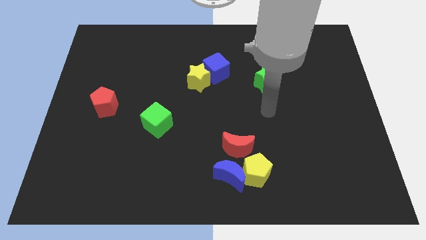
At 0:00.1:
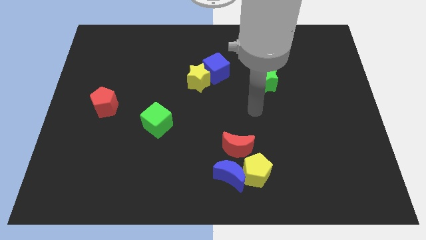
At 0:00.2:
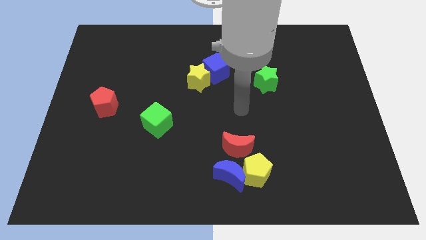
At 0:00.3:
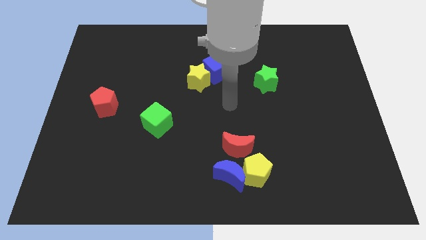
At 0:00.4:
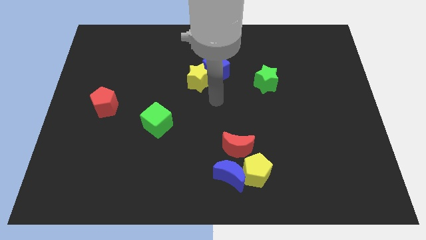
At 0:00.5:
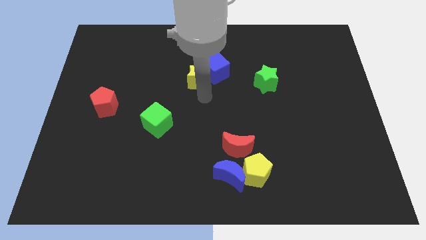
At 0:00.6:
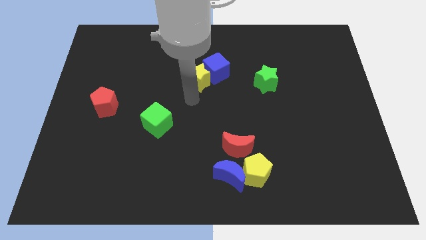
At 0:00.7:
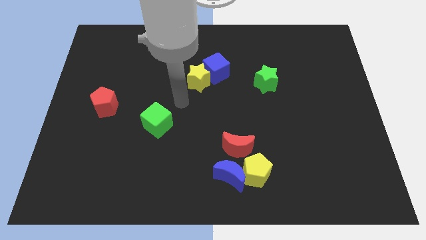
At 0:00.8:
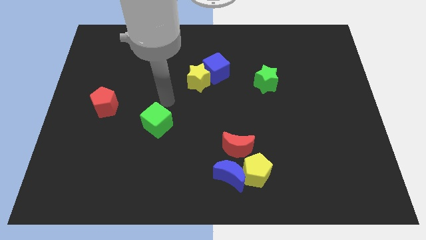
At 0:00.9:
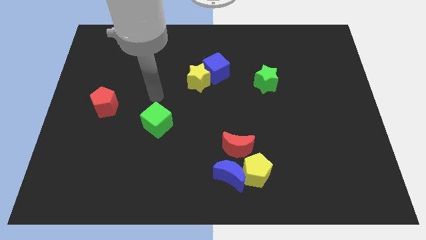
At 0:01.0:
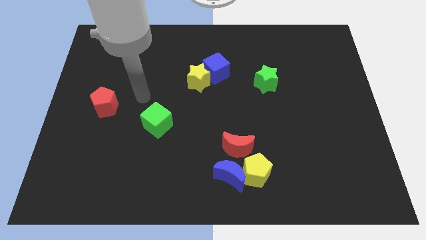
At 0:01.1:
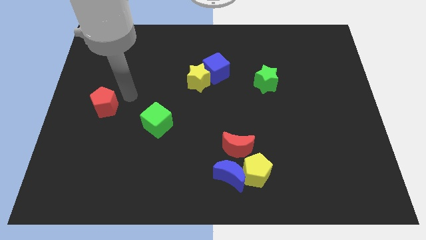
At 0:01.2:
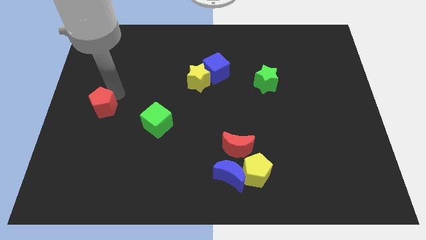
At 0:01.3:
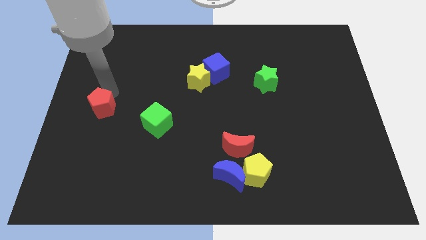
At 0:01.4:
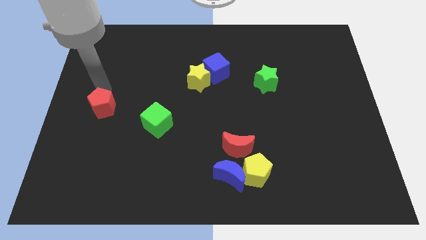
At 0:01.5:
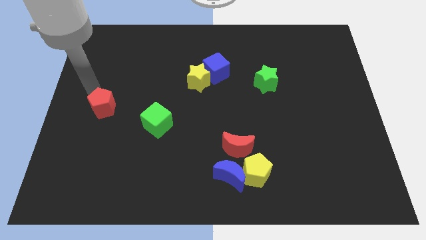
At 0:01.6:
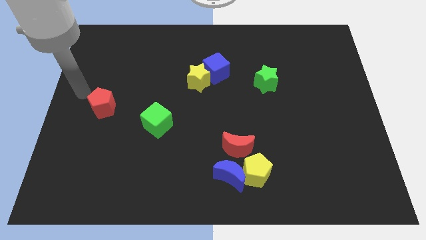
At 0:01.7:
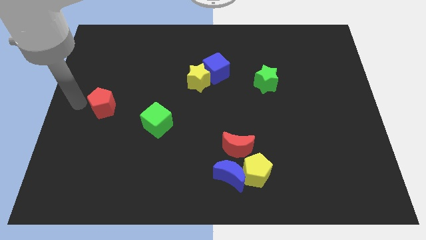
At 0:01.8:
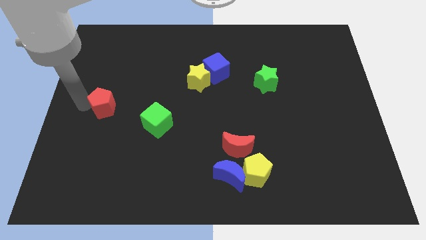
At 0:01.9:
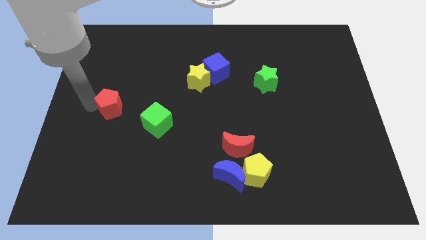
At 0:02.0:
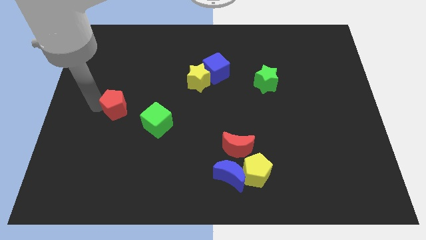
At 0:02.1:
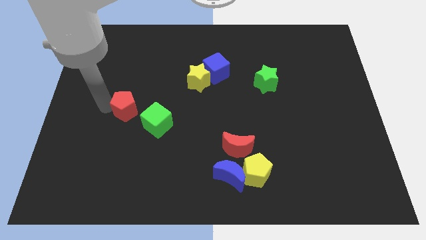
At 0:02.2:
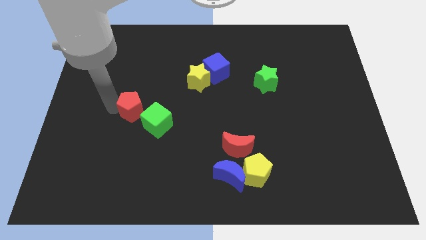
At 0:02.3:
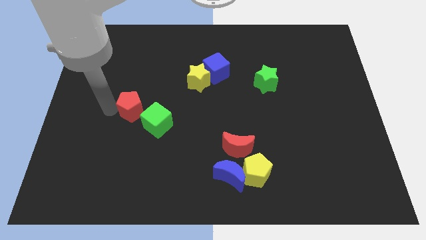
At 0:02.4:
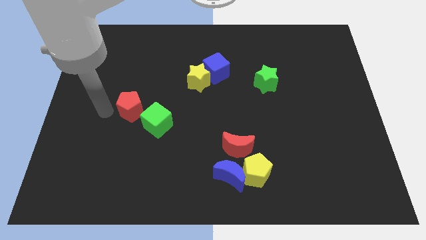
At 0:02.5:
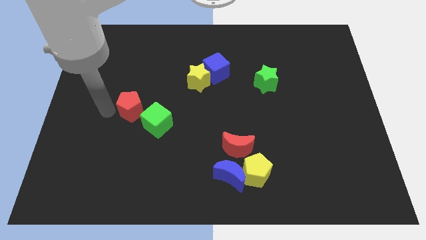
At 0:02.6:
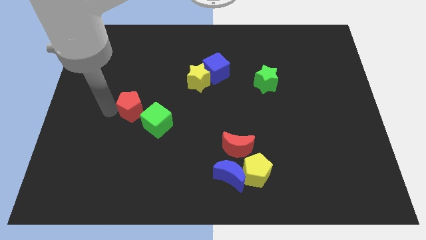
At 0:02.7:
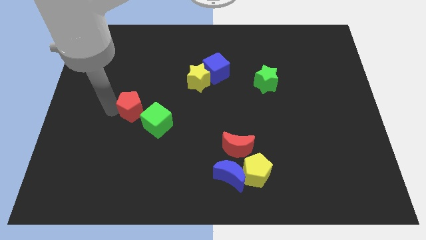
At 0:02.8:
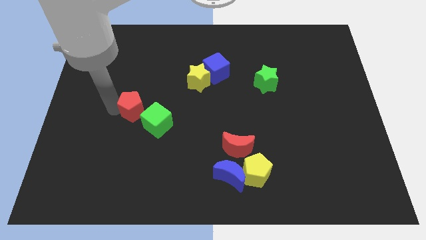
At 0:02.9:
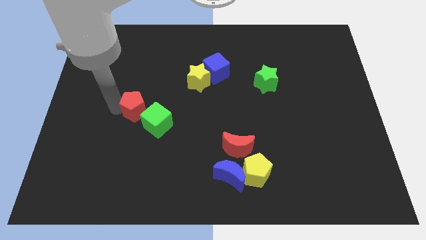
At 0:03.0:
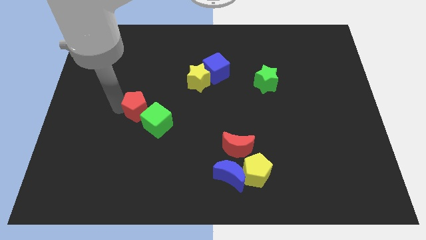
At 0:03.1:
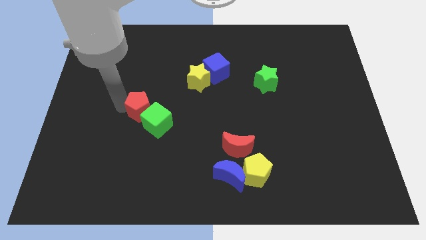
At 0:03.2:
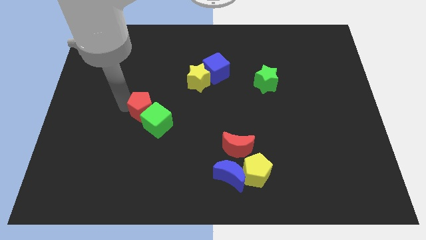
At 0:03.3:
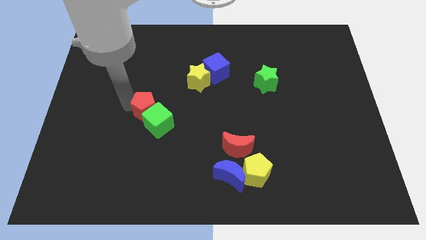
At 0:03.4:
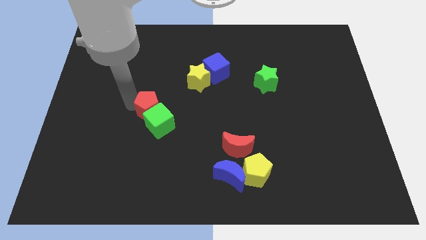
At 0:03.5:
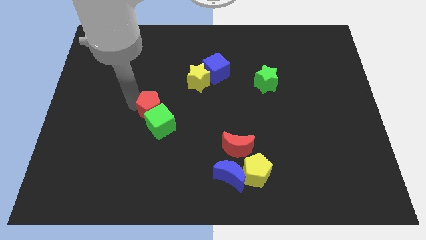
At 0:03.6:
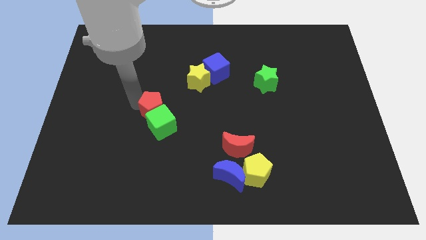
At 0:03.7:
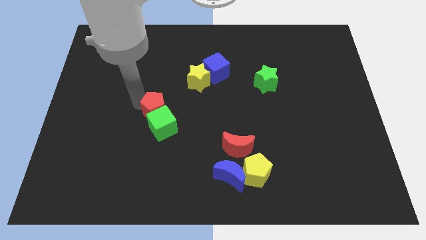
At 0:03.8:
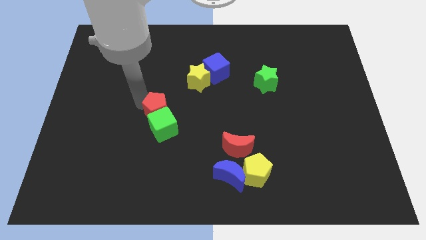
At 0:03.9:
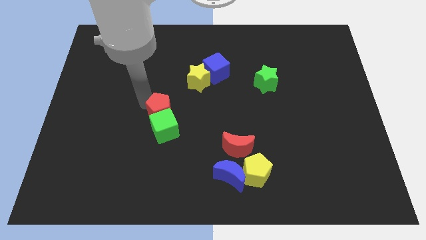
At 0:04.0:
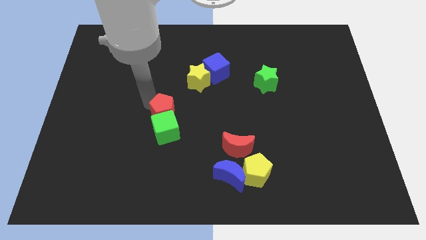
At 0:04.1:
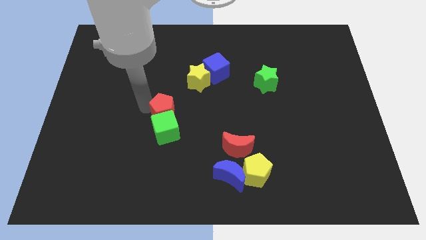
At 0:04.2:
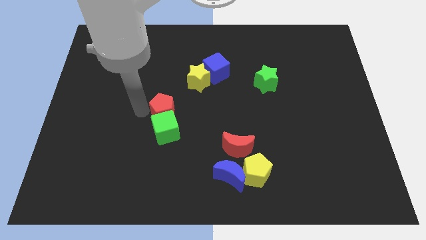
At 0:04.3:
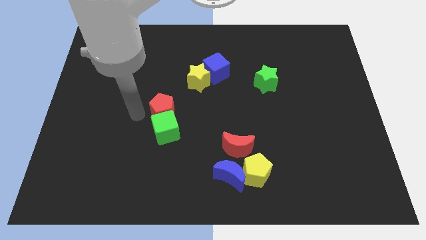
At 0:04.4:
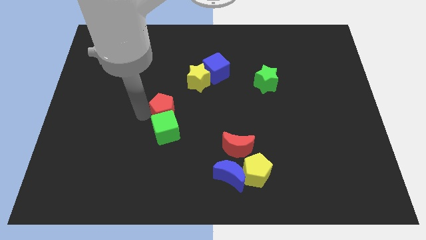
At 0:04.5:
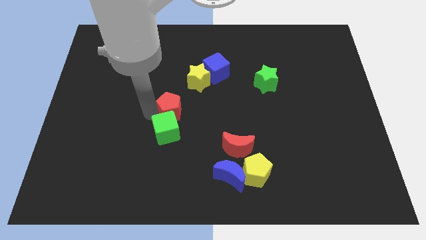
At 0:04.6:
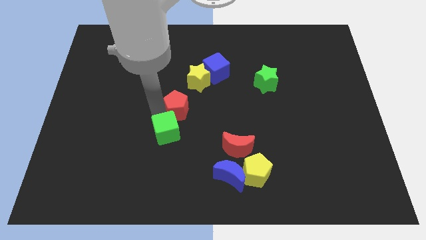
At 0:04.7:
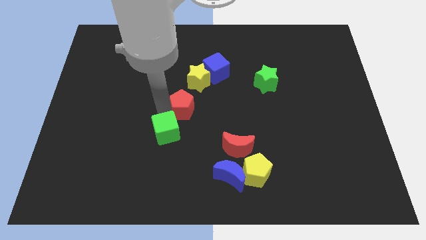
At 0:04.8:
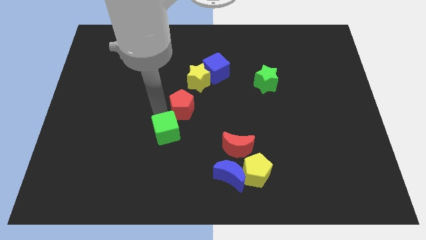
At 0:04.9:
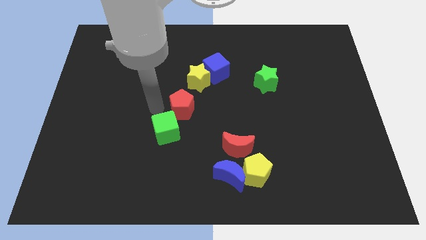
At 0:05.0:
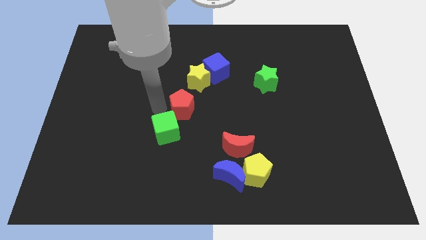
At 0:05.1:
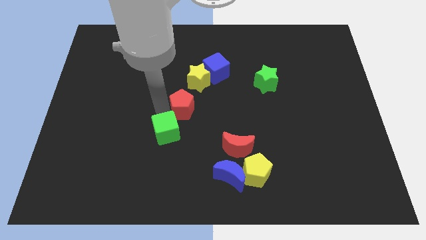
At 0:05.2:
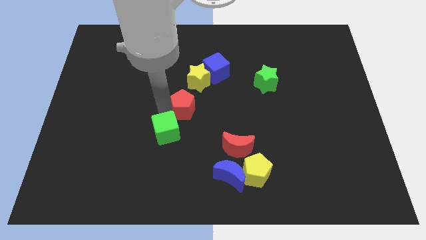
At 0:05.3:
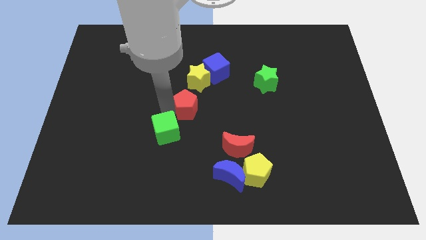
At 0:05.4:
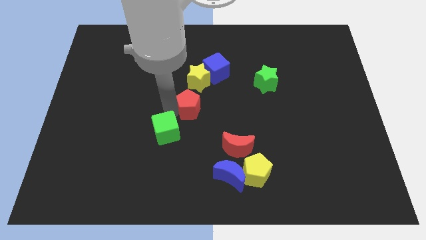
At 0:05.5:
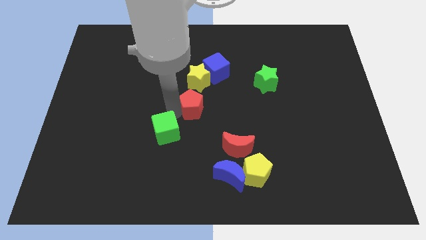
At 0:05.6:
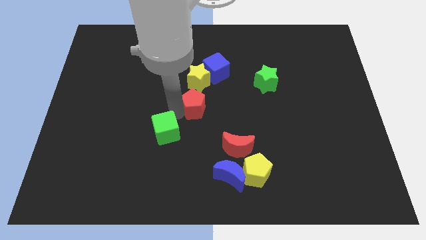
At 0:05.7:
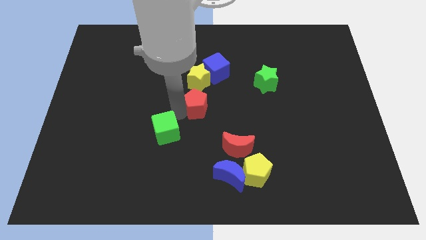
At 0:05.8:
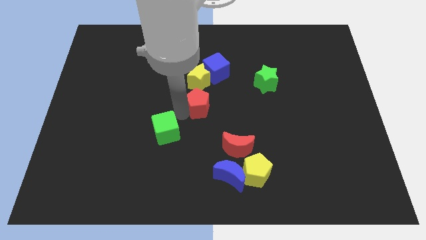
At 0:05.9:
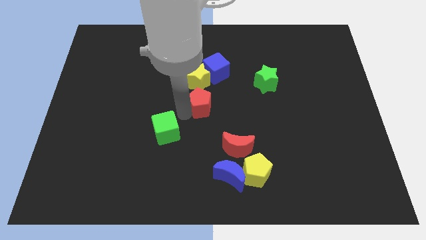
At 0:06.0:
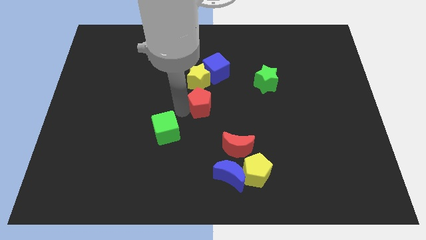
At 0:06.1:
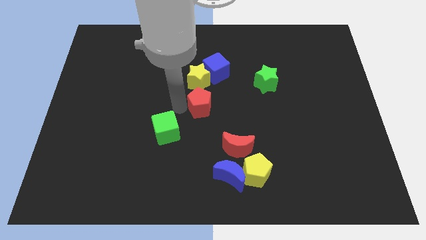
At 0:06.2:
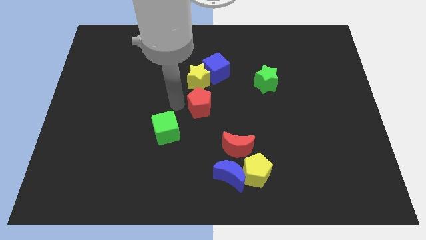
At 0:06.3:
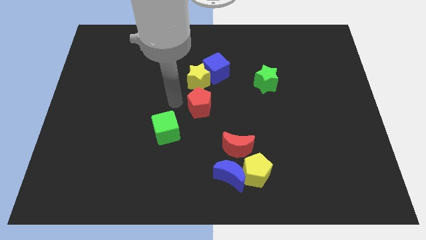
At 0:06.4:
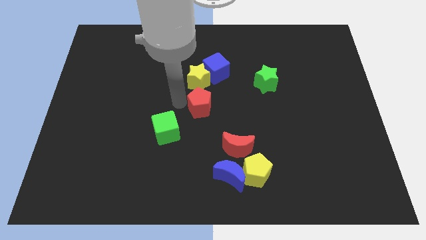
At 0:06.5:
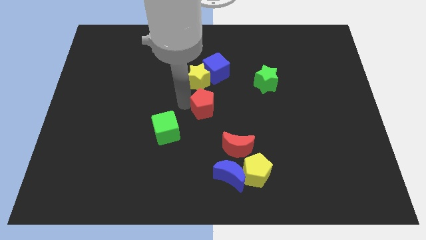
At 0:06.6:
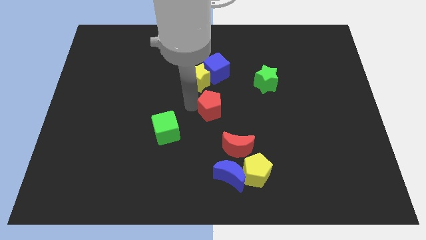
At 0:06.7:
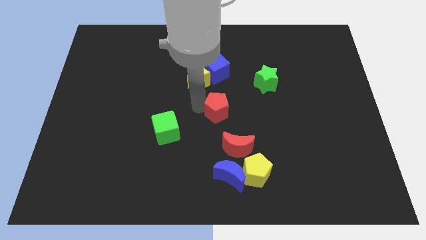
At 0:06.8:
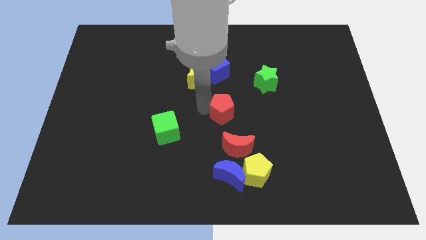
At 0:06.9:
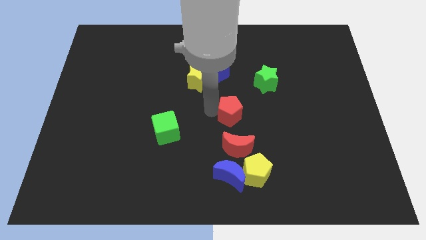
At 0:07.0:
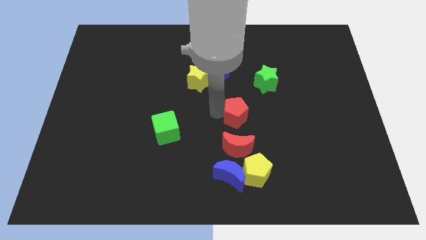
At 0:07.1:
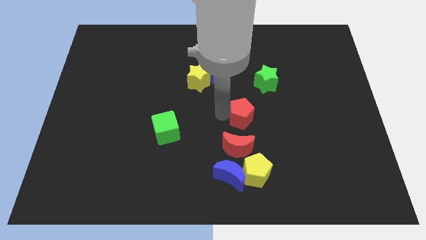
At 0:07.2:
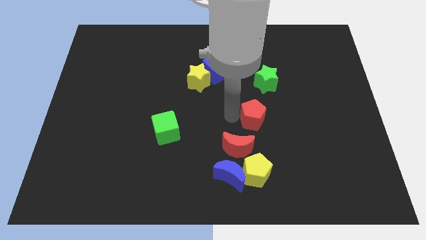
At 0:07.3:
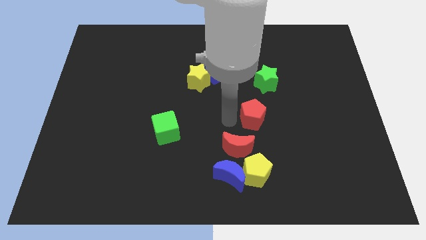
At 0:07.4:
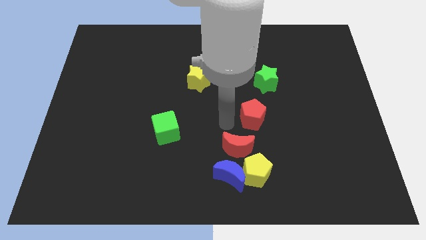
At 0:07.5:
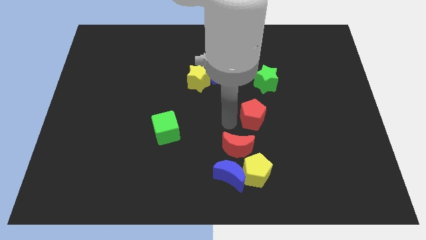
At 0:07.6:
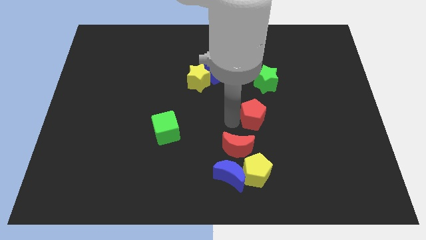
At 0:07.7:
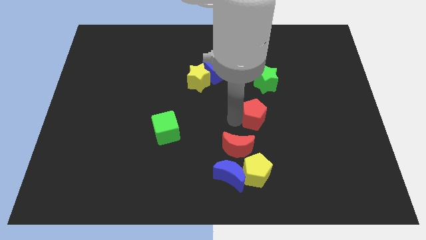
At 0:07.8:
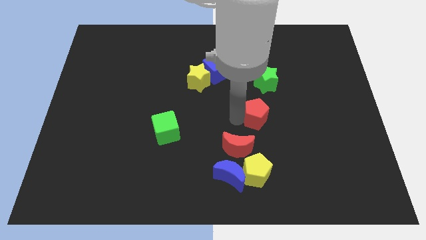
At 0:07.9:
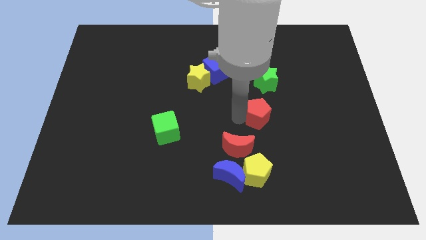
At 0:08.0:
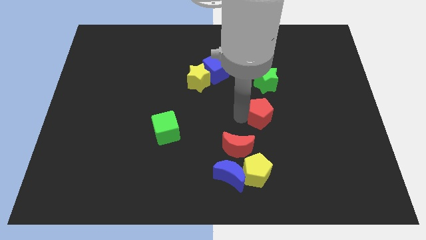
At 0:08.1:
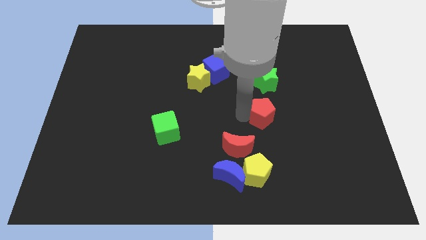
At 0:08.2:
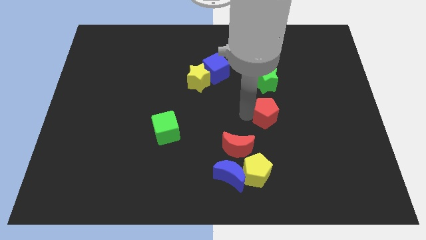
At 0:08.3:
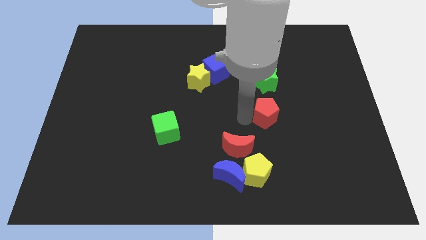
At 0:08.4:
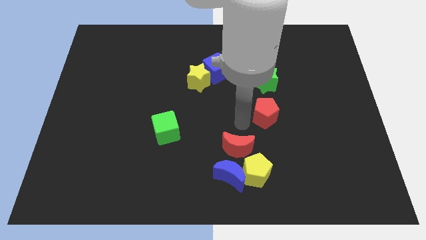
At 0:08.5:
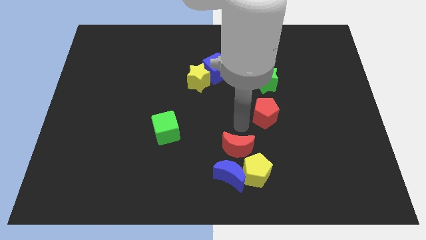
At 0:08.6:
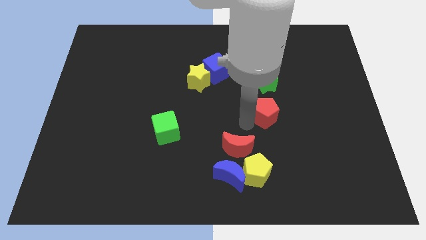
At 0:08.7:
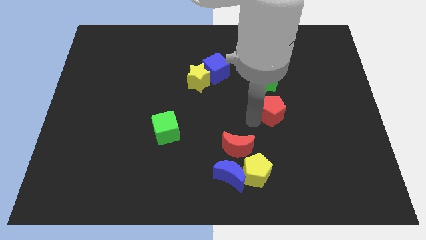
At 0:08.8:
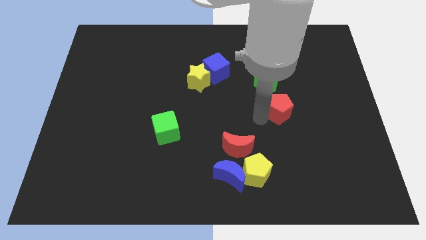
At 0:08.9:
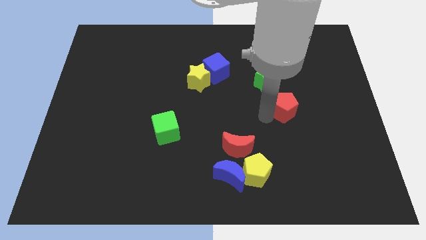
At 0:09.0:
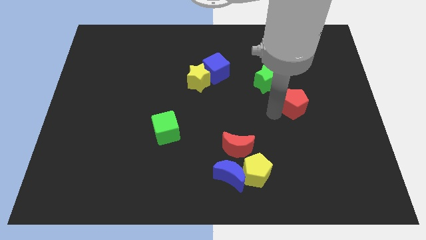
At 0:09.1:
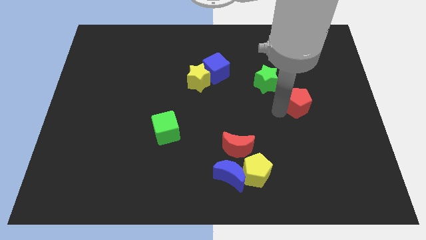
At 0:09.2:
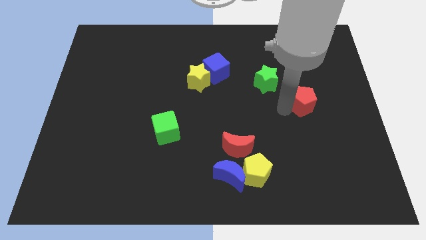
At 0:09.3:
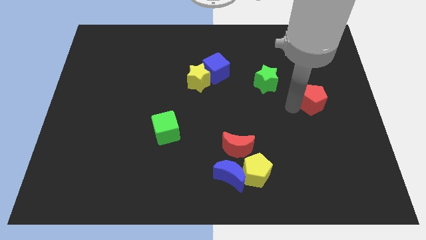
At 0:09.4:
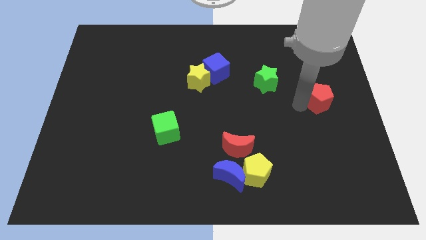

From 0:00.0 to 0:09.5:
slide the red pentagon to the right side
